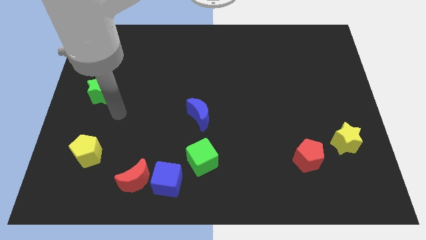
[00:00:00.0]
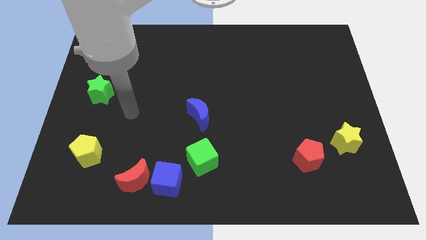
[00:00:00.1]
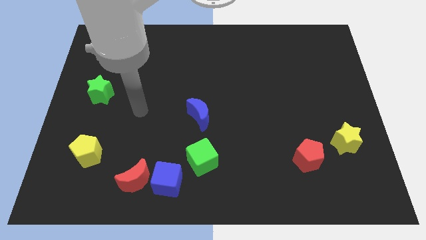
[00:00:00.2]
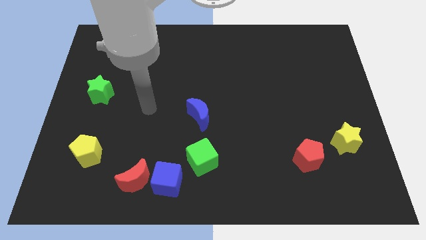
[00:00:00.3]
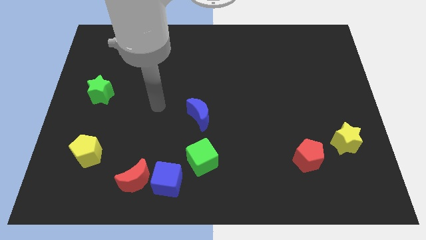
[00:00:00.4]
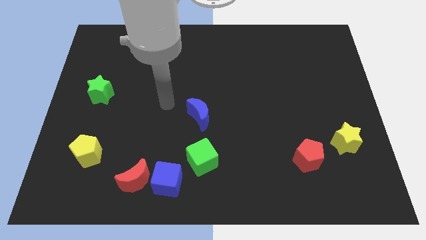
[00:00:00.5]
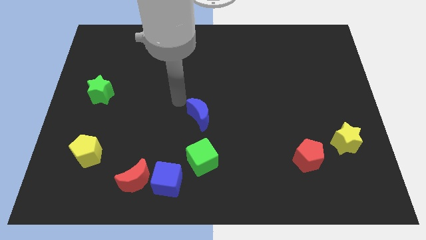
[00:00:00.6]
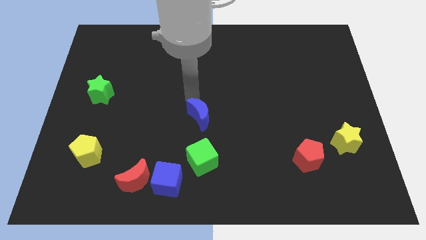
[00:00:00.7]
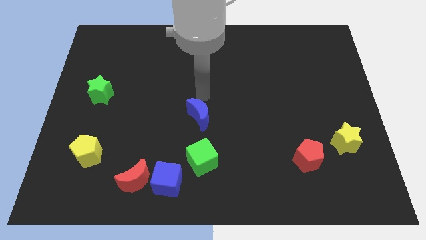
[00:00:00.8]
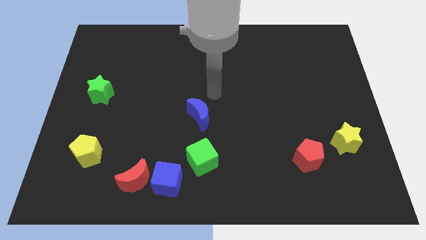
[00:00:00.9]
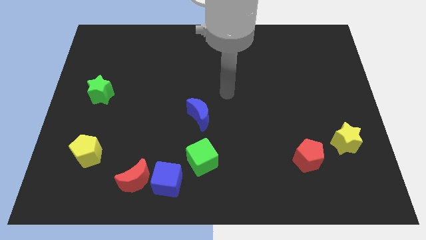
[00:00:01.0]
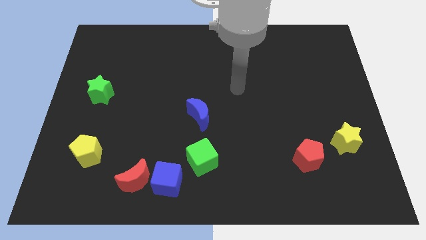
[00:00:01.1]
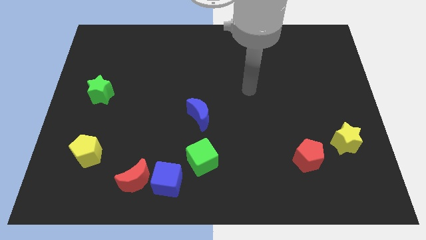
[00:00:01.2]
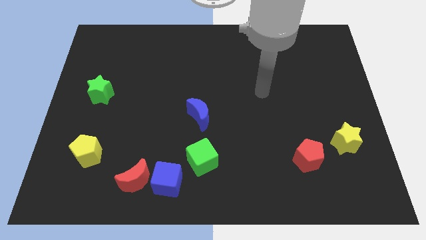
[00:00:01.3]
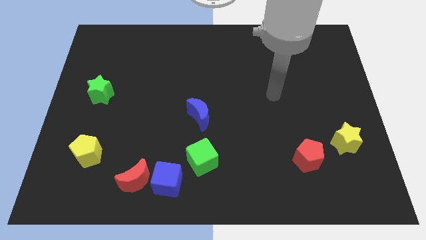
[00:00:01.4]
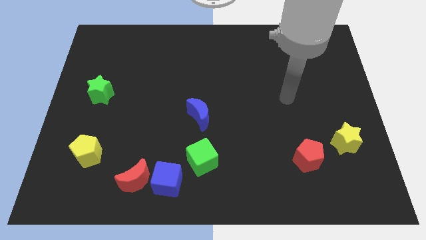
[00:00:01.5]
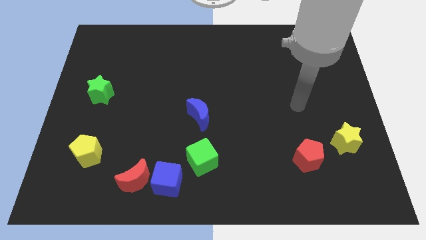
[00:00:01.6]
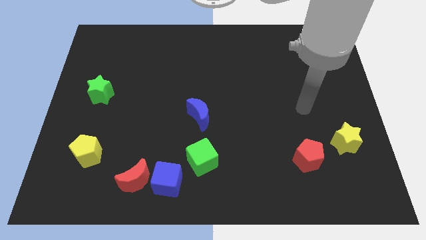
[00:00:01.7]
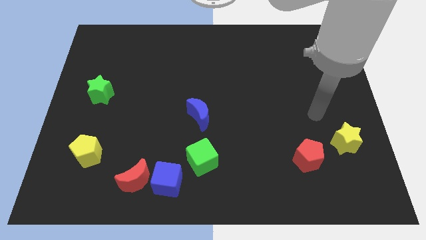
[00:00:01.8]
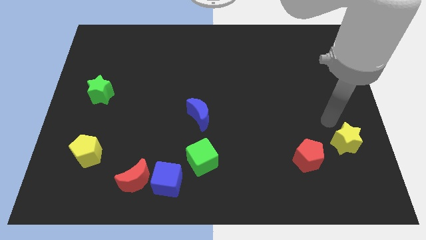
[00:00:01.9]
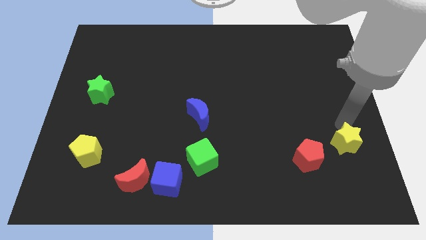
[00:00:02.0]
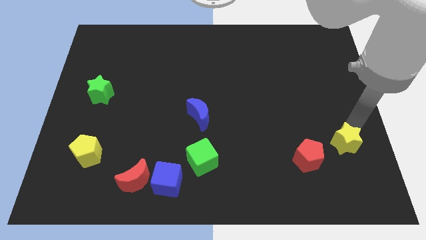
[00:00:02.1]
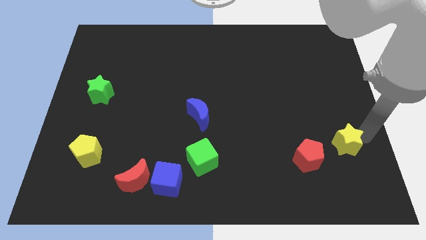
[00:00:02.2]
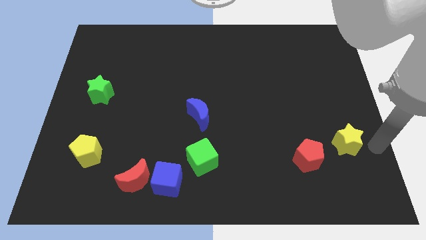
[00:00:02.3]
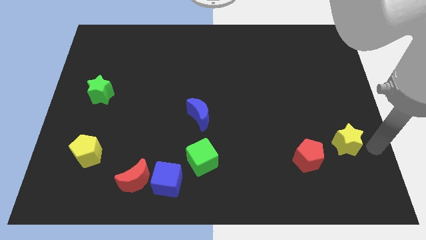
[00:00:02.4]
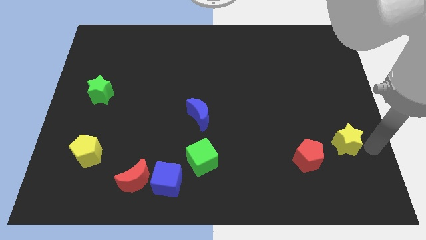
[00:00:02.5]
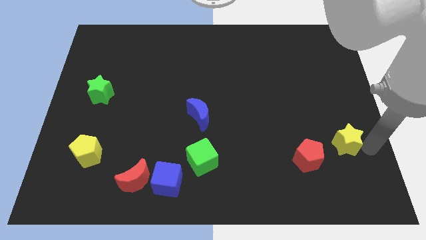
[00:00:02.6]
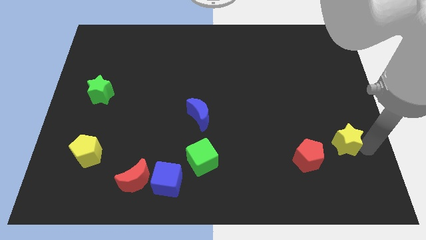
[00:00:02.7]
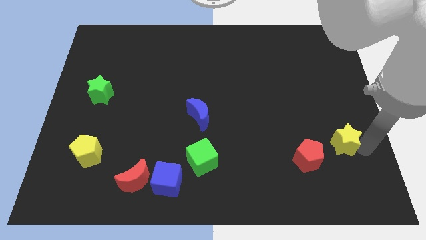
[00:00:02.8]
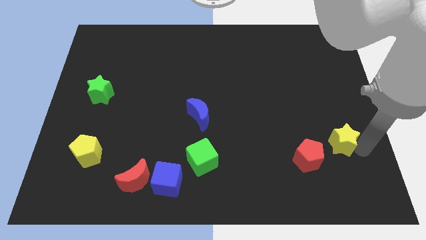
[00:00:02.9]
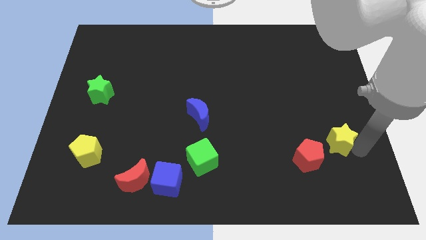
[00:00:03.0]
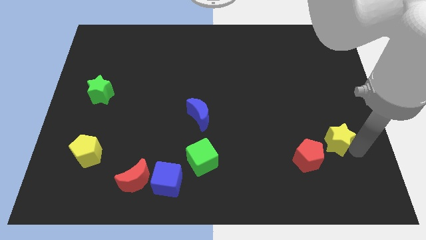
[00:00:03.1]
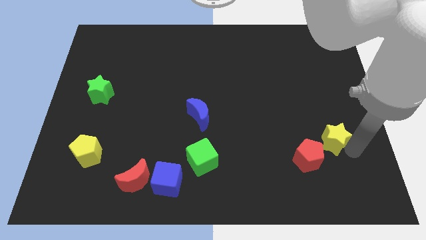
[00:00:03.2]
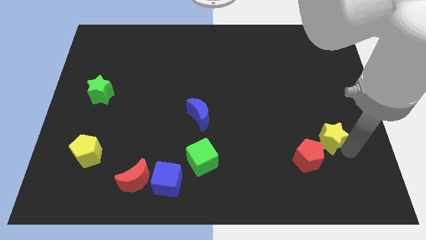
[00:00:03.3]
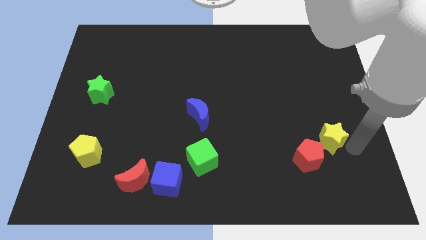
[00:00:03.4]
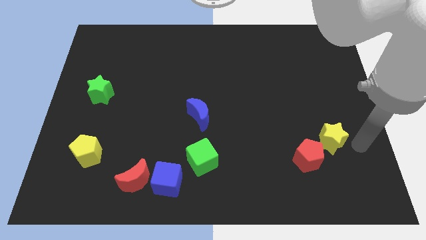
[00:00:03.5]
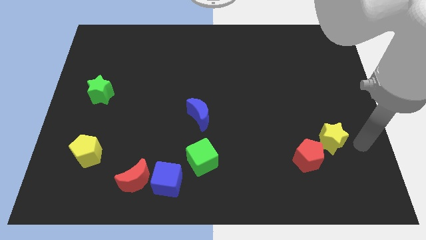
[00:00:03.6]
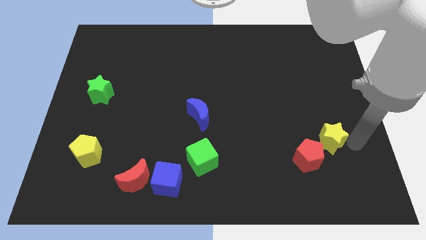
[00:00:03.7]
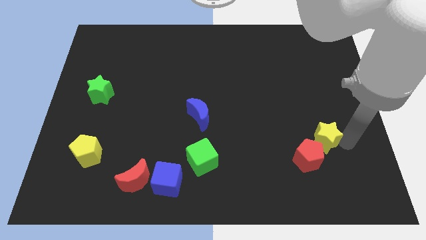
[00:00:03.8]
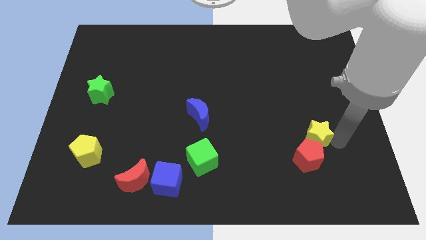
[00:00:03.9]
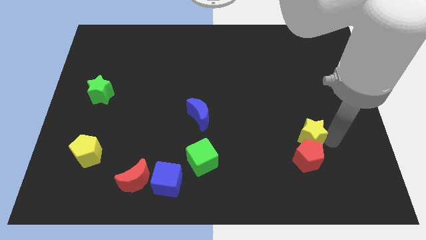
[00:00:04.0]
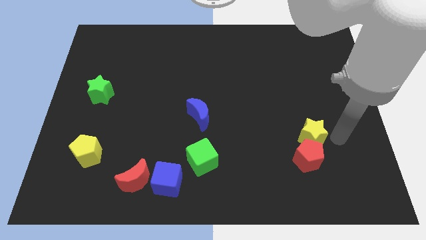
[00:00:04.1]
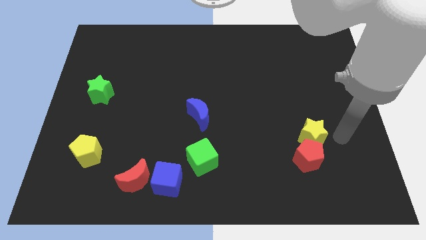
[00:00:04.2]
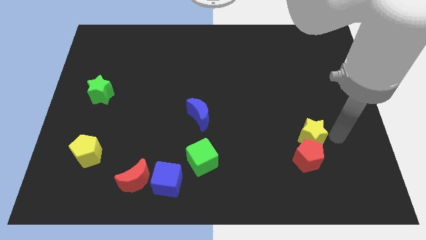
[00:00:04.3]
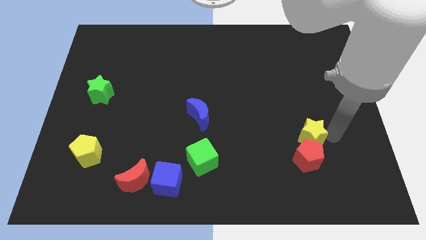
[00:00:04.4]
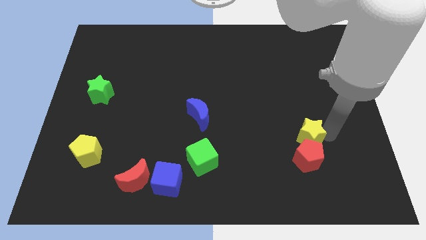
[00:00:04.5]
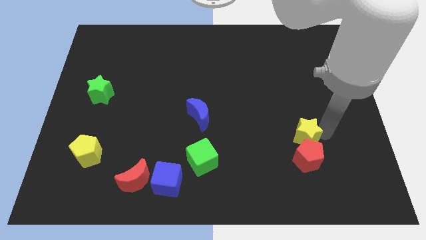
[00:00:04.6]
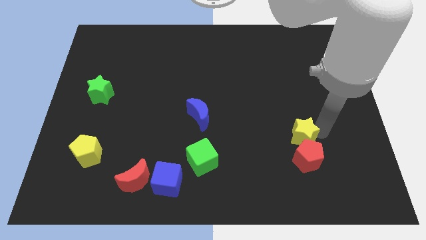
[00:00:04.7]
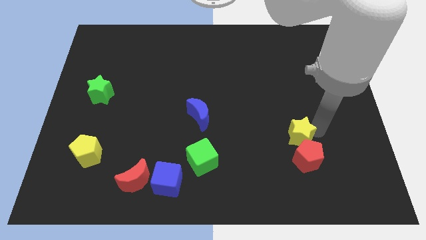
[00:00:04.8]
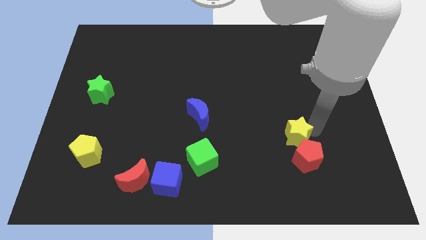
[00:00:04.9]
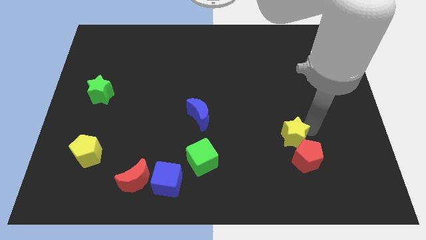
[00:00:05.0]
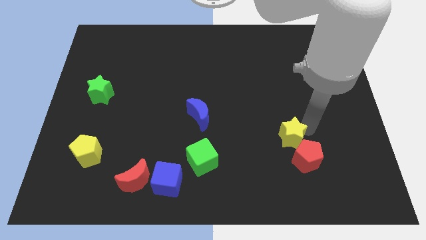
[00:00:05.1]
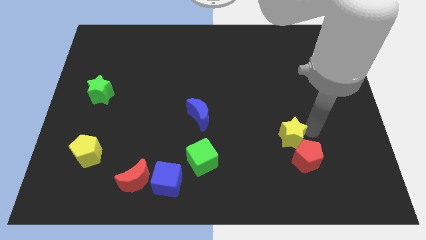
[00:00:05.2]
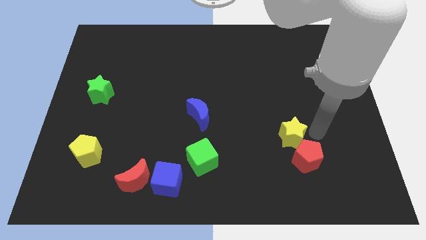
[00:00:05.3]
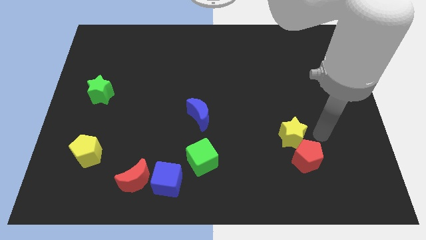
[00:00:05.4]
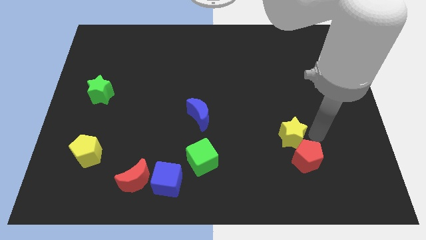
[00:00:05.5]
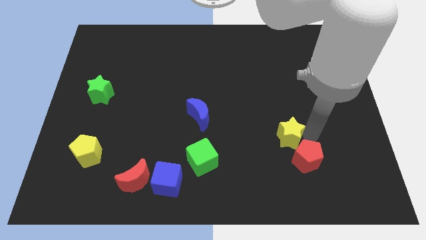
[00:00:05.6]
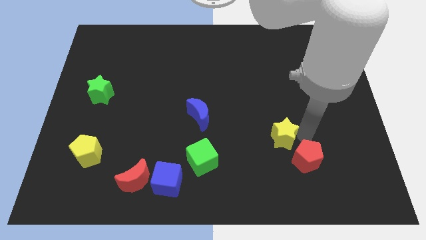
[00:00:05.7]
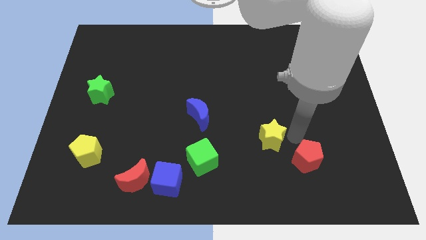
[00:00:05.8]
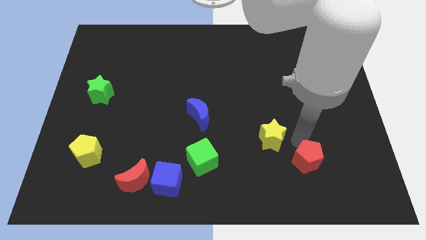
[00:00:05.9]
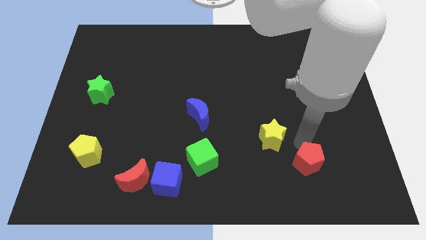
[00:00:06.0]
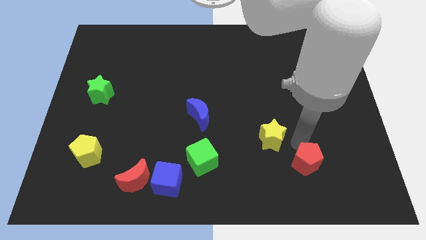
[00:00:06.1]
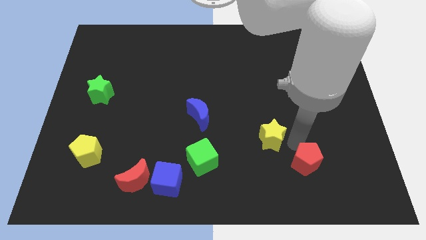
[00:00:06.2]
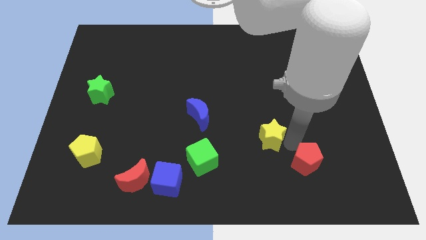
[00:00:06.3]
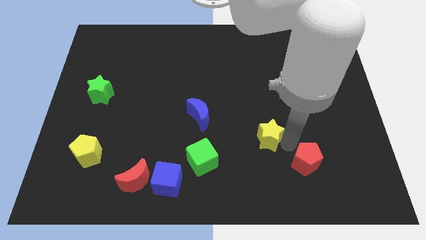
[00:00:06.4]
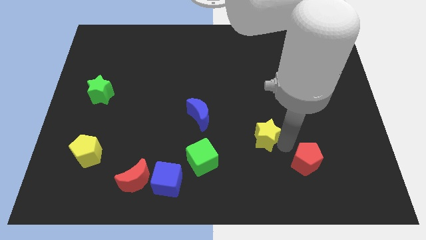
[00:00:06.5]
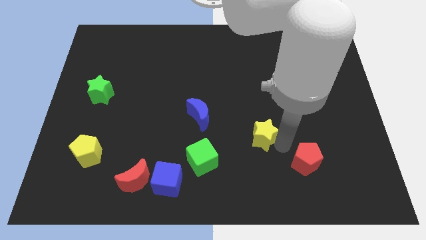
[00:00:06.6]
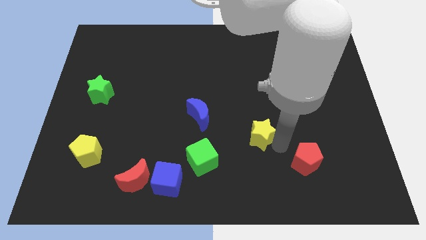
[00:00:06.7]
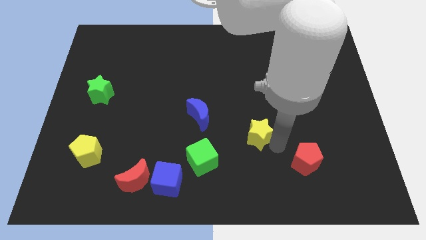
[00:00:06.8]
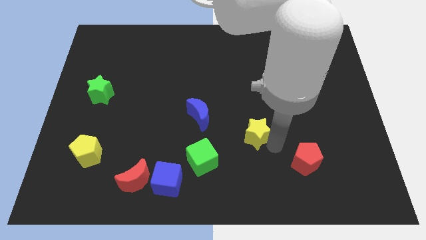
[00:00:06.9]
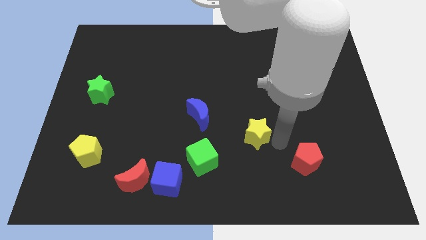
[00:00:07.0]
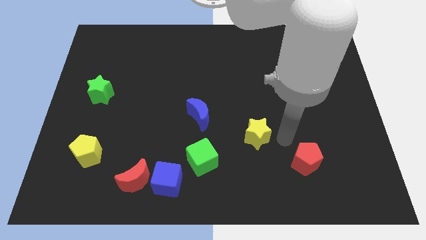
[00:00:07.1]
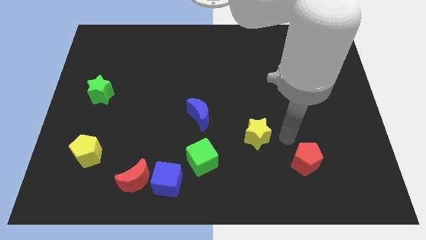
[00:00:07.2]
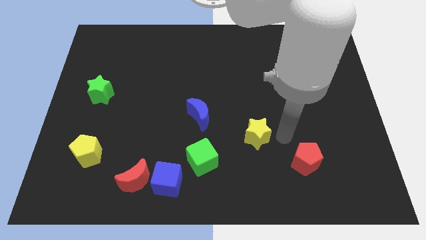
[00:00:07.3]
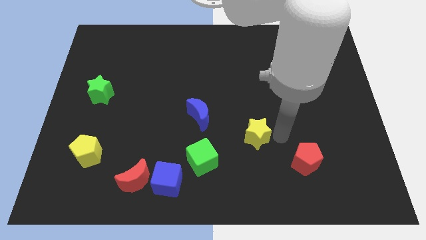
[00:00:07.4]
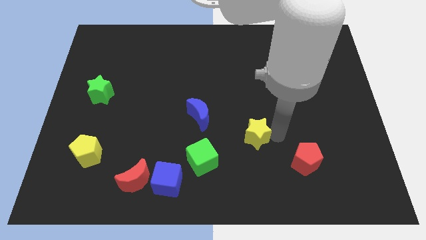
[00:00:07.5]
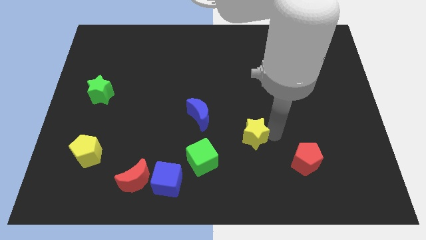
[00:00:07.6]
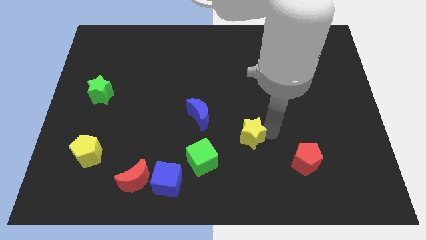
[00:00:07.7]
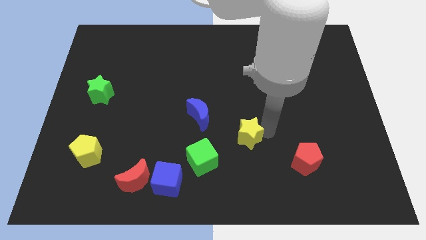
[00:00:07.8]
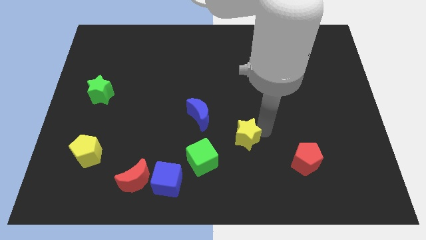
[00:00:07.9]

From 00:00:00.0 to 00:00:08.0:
slide the yellow star to the bottom right side of the blue moon
